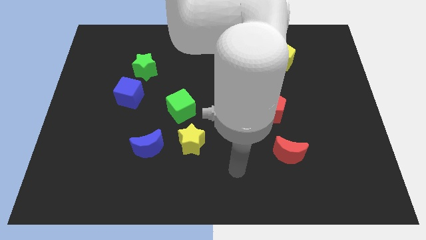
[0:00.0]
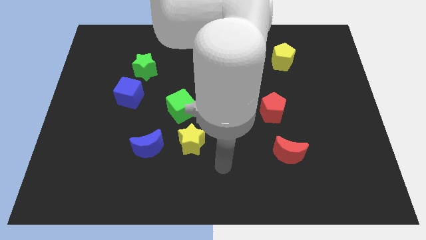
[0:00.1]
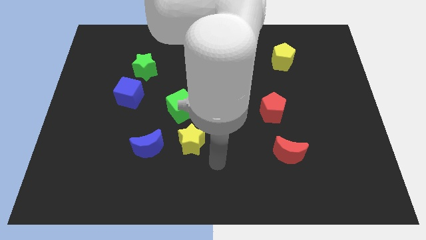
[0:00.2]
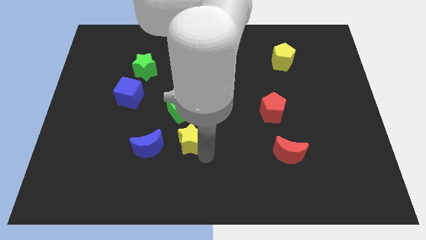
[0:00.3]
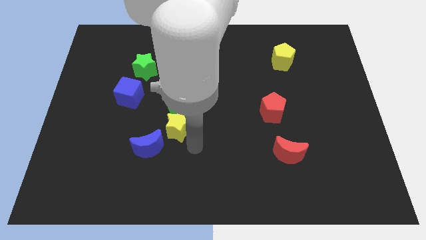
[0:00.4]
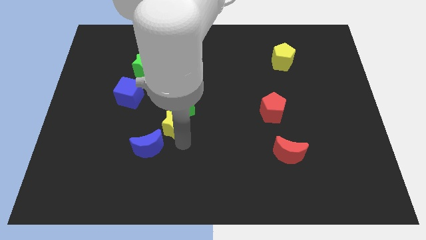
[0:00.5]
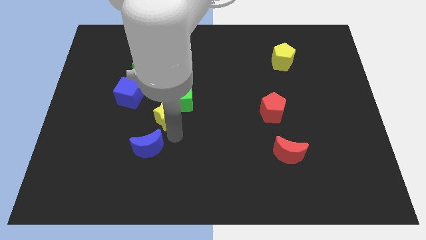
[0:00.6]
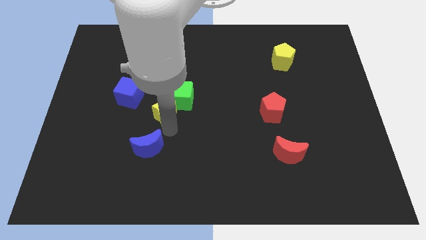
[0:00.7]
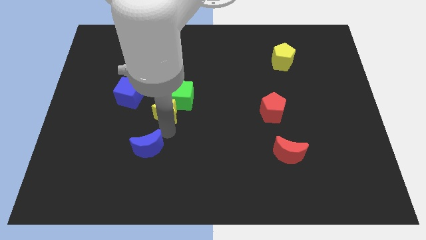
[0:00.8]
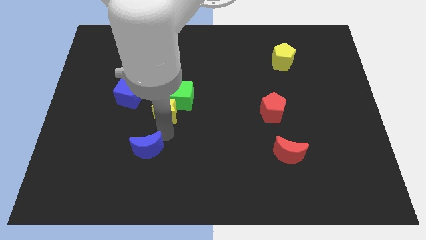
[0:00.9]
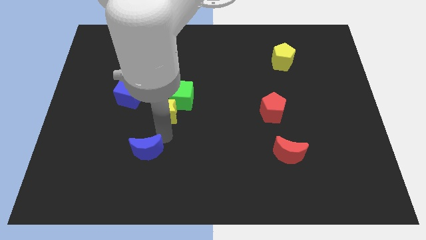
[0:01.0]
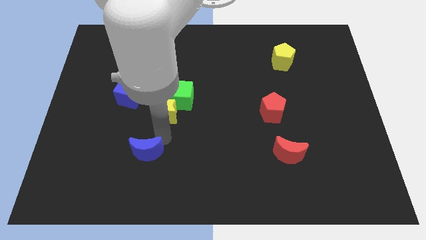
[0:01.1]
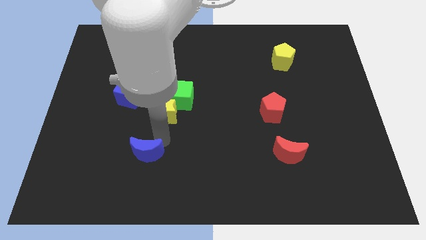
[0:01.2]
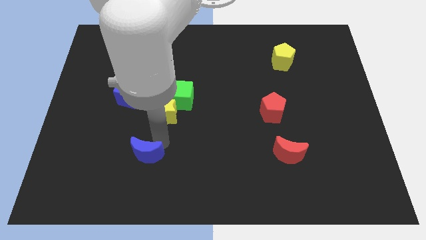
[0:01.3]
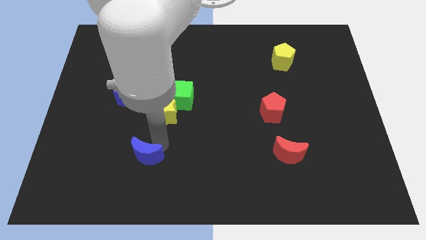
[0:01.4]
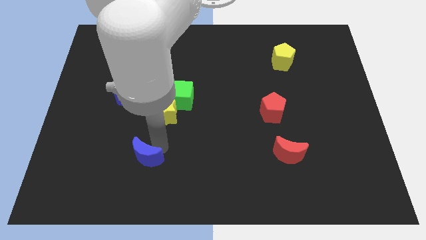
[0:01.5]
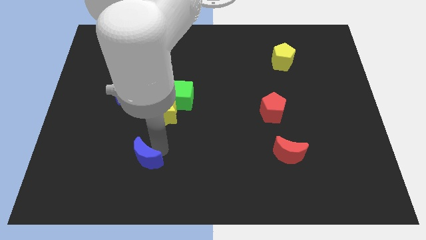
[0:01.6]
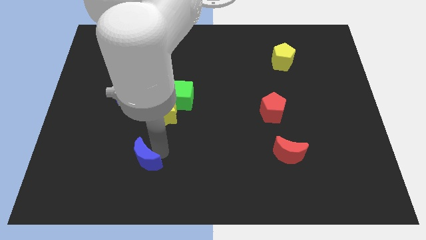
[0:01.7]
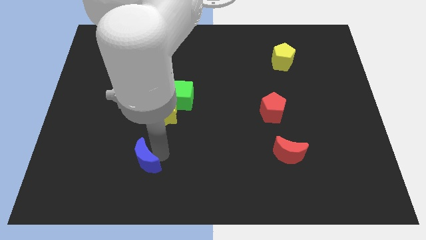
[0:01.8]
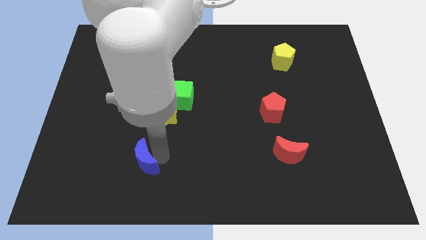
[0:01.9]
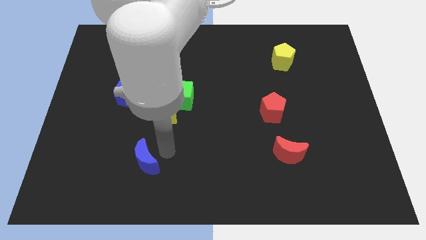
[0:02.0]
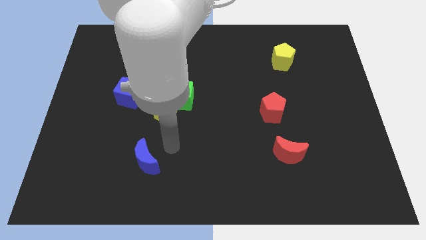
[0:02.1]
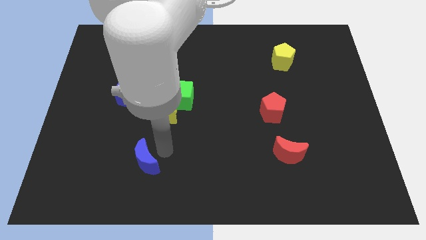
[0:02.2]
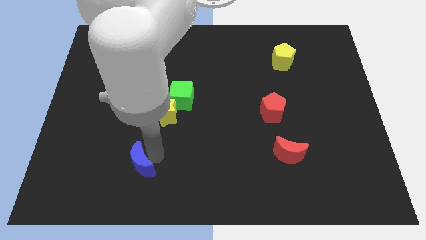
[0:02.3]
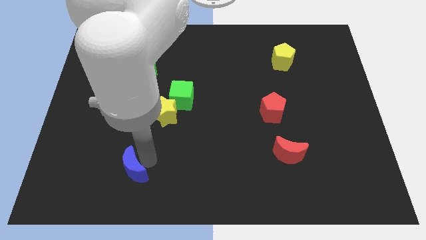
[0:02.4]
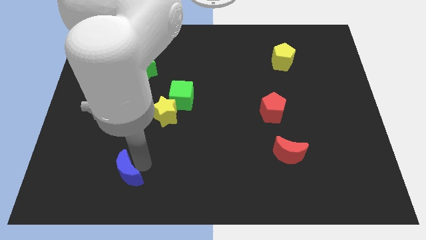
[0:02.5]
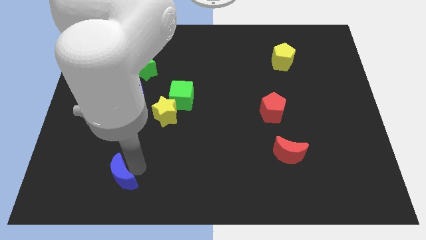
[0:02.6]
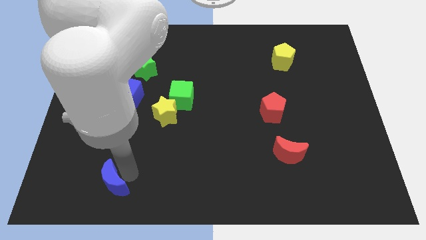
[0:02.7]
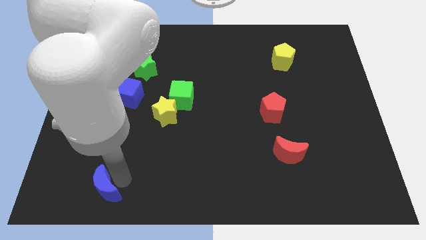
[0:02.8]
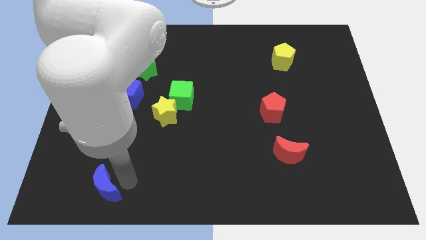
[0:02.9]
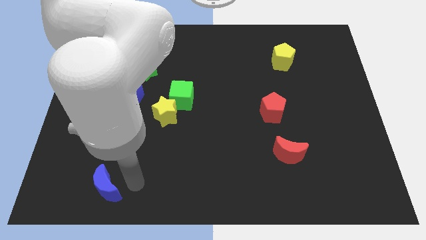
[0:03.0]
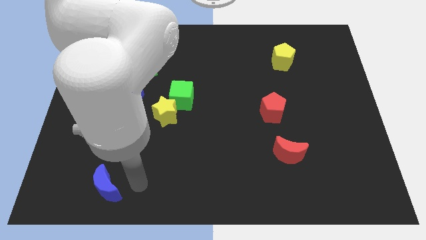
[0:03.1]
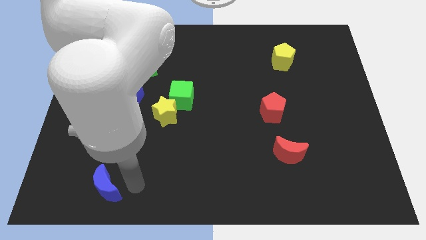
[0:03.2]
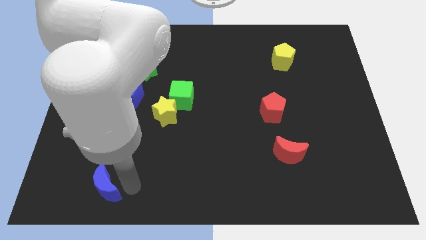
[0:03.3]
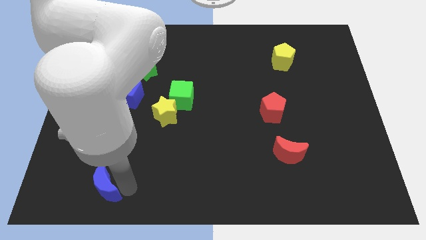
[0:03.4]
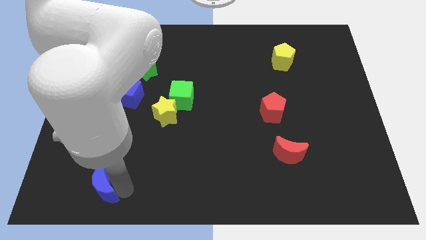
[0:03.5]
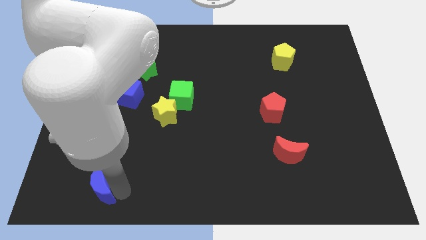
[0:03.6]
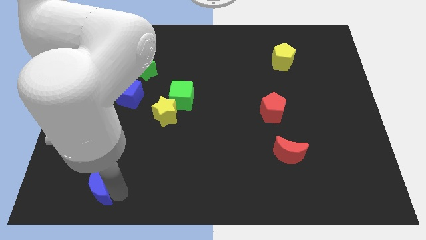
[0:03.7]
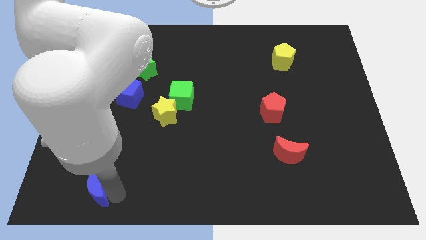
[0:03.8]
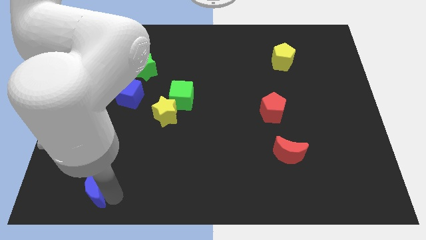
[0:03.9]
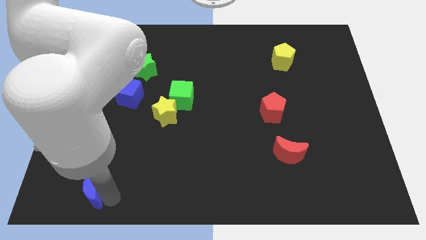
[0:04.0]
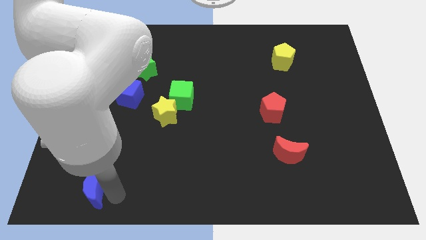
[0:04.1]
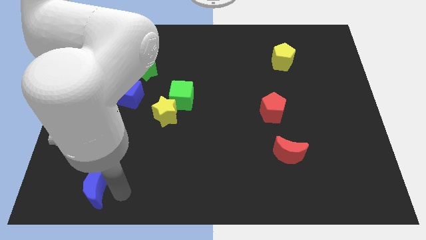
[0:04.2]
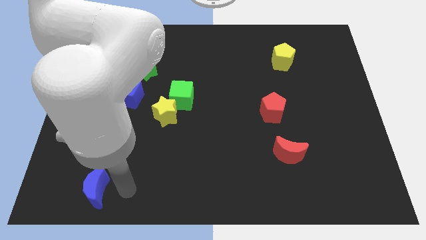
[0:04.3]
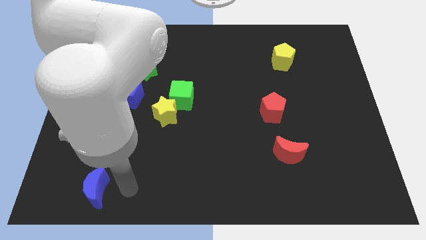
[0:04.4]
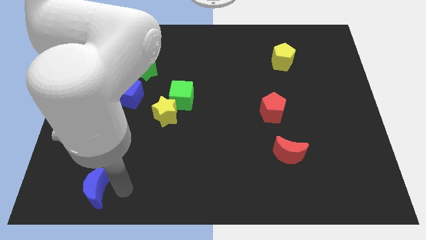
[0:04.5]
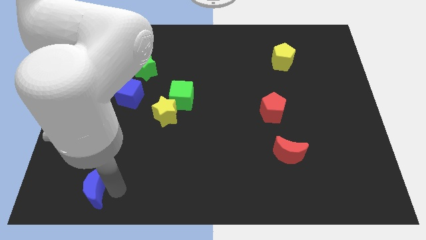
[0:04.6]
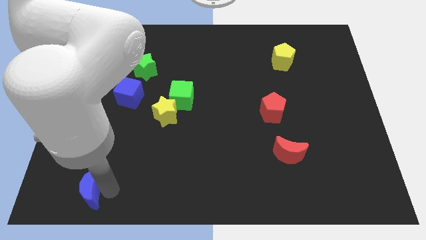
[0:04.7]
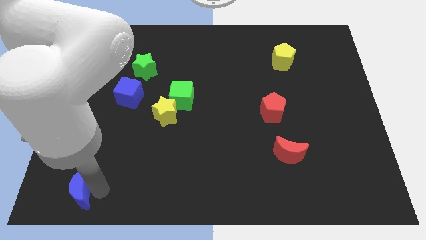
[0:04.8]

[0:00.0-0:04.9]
move the blue moon to the lower left corner

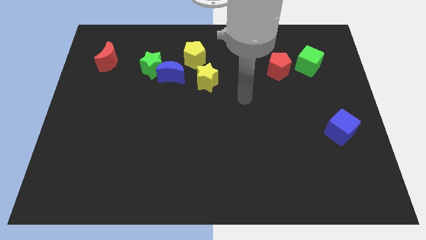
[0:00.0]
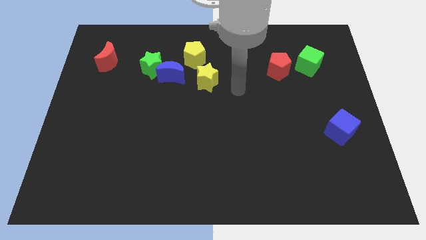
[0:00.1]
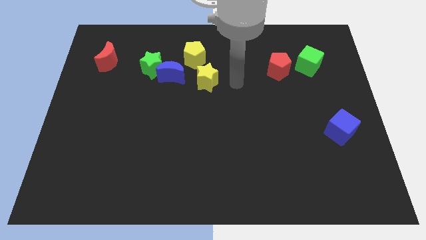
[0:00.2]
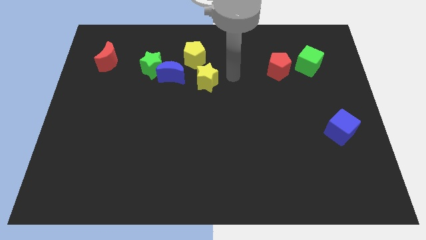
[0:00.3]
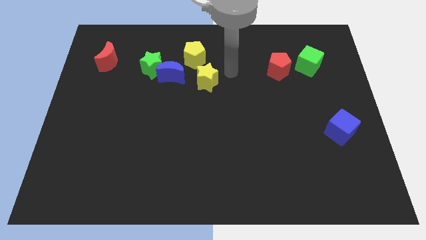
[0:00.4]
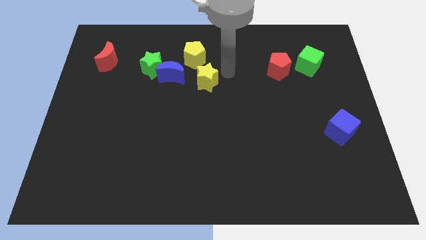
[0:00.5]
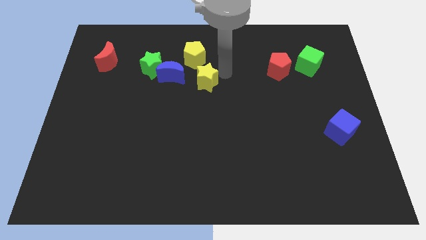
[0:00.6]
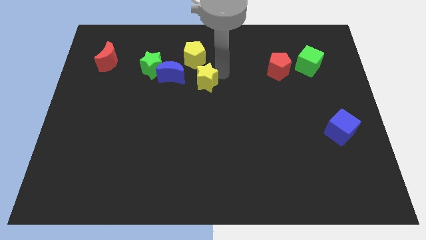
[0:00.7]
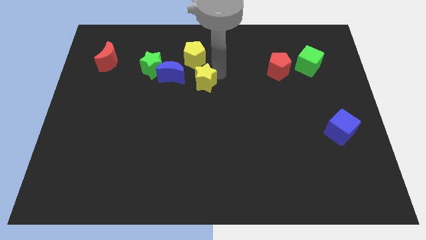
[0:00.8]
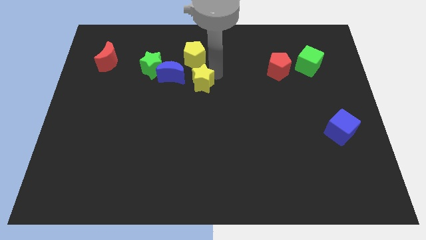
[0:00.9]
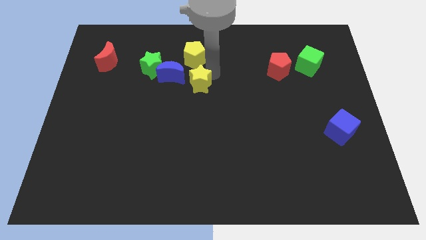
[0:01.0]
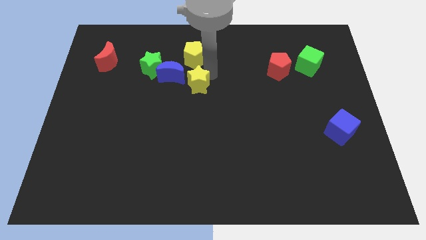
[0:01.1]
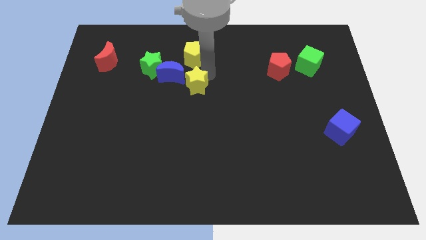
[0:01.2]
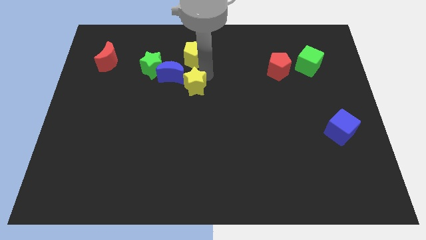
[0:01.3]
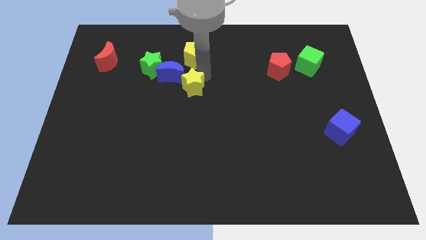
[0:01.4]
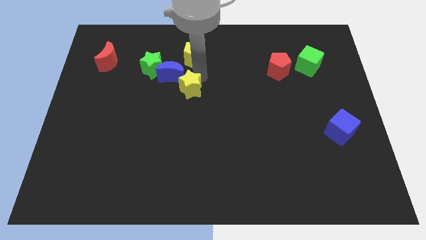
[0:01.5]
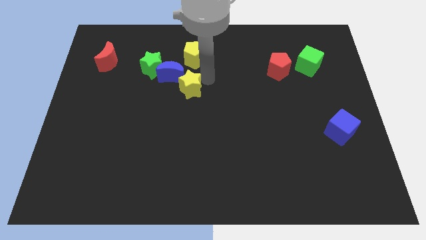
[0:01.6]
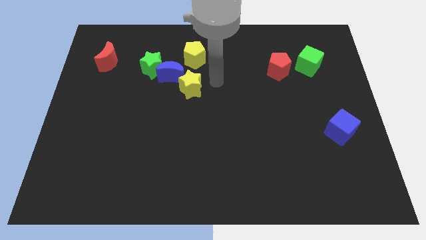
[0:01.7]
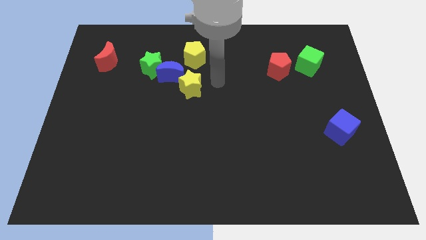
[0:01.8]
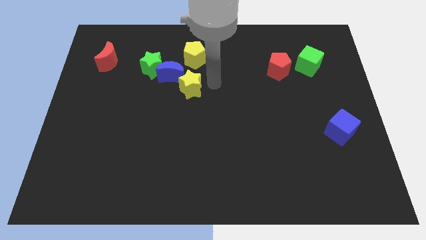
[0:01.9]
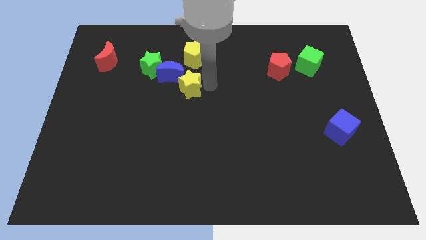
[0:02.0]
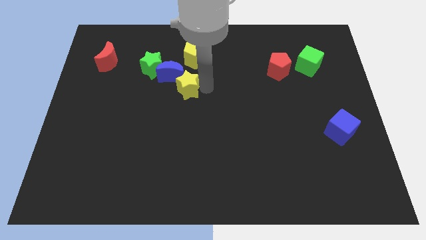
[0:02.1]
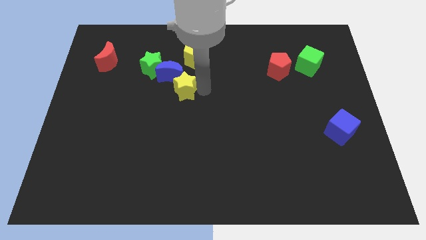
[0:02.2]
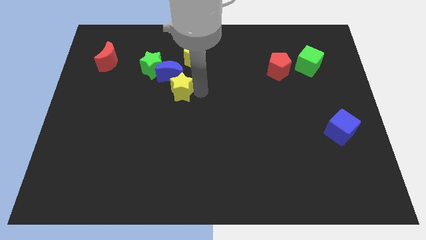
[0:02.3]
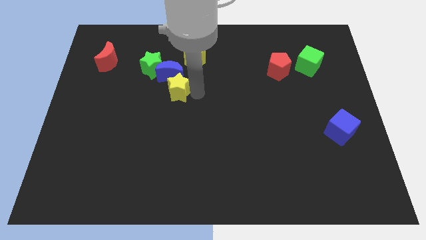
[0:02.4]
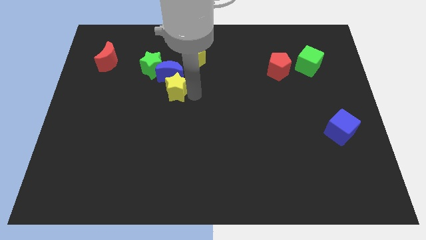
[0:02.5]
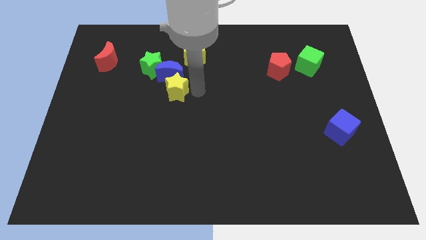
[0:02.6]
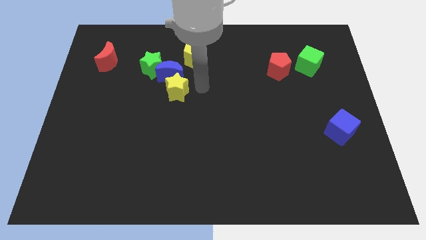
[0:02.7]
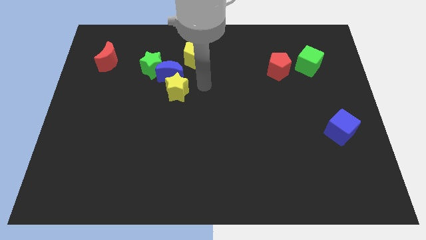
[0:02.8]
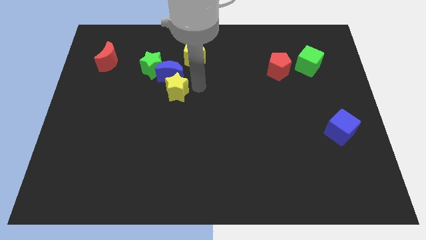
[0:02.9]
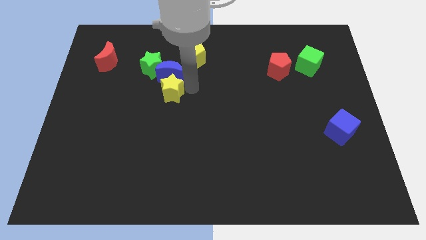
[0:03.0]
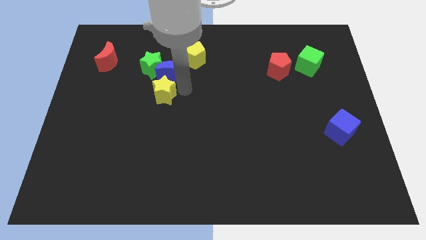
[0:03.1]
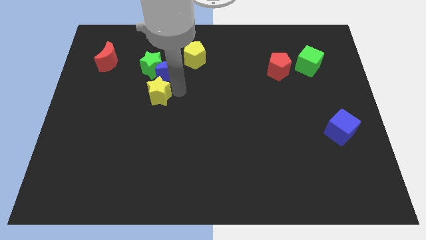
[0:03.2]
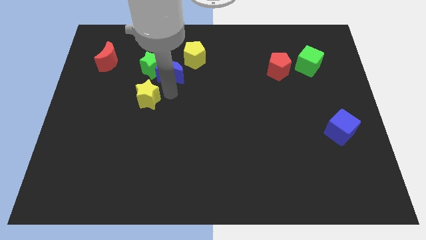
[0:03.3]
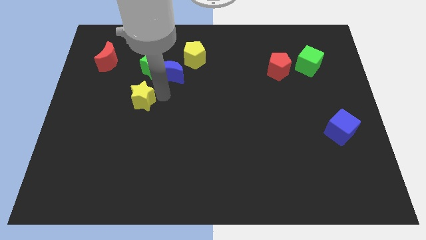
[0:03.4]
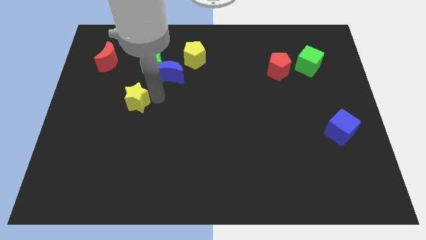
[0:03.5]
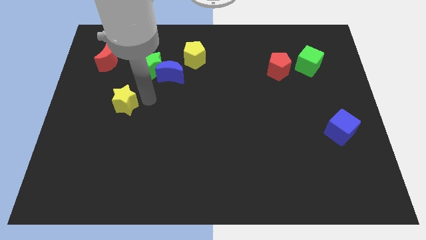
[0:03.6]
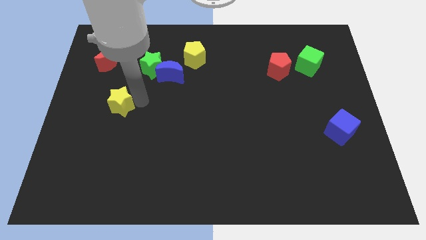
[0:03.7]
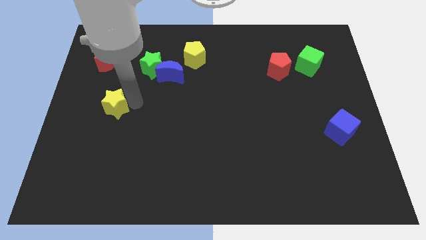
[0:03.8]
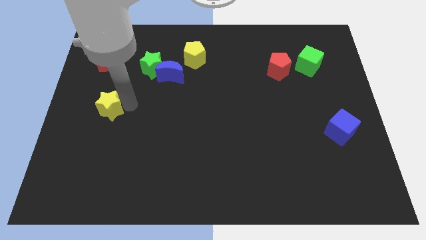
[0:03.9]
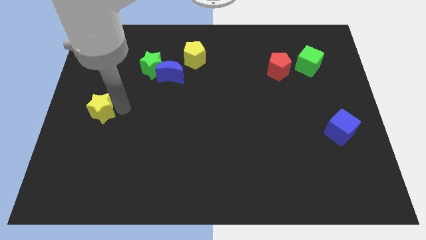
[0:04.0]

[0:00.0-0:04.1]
move the yellow star to the left side of the board
